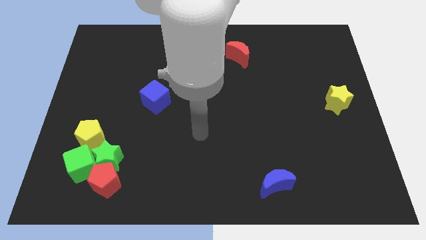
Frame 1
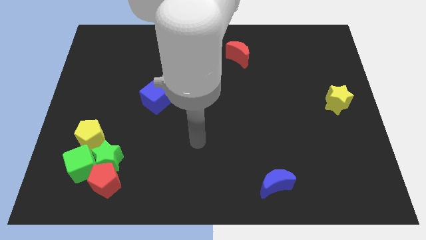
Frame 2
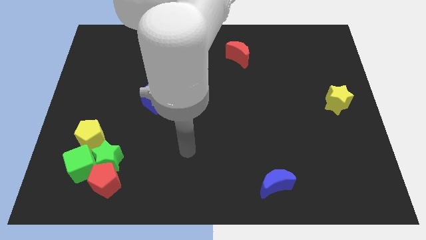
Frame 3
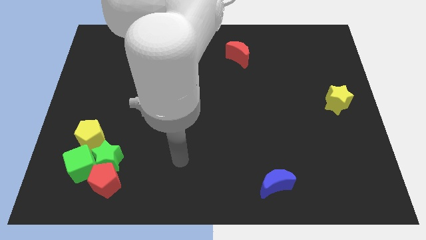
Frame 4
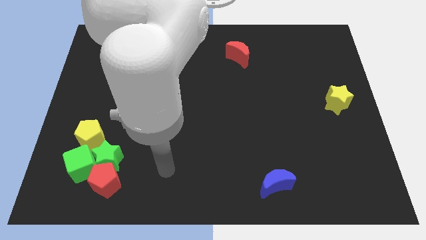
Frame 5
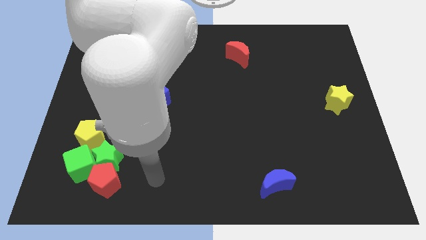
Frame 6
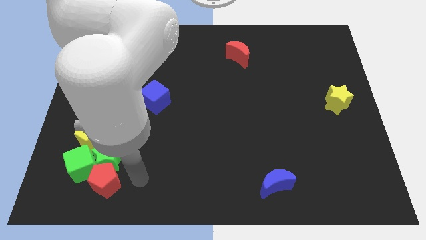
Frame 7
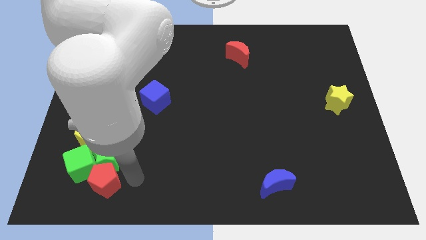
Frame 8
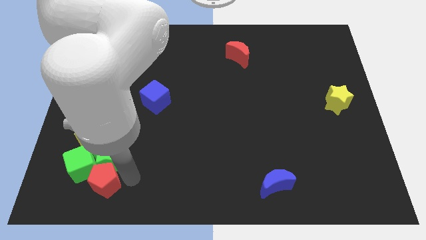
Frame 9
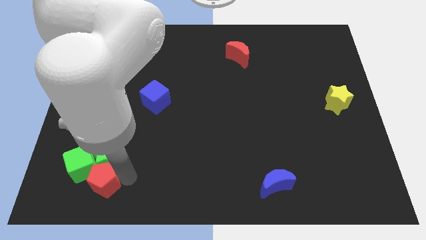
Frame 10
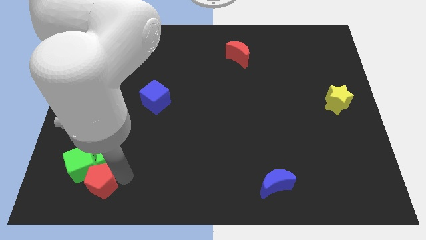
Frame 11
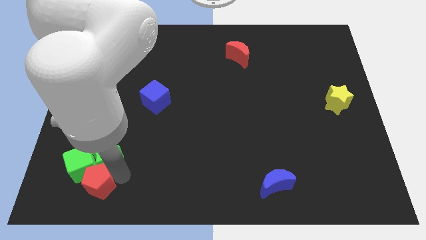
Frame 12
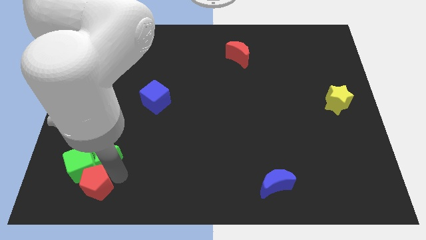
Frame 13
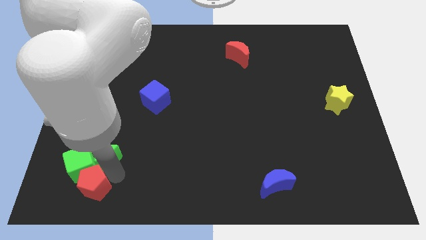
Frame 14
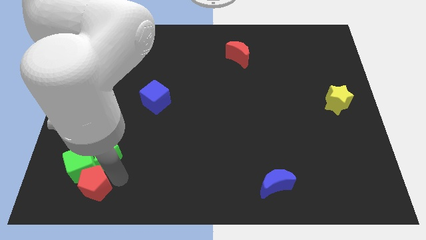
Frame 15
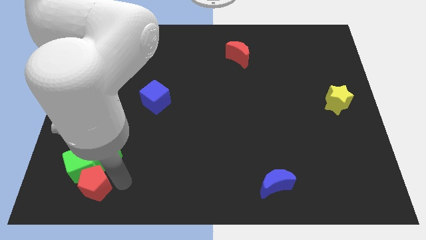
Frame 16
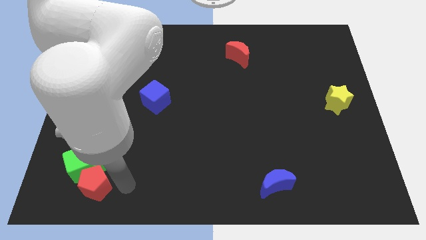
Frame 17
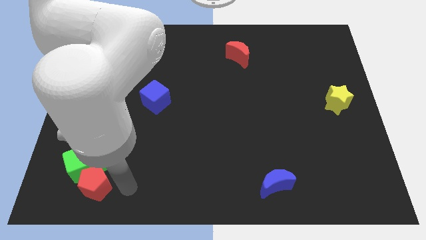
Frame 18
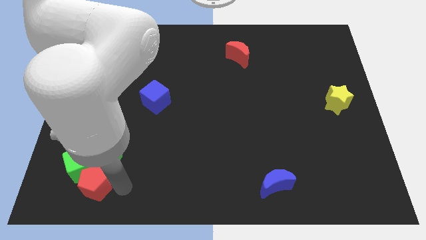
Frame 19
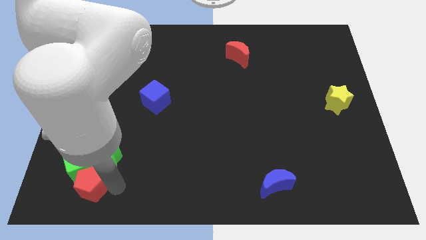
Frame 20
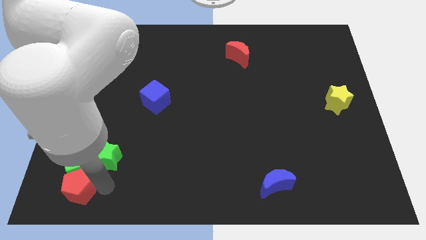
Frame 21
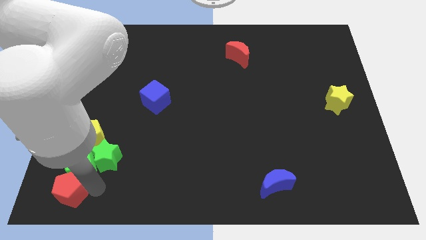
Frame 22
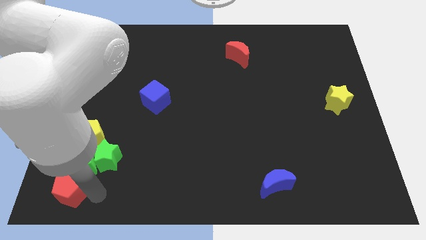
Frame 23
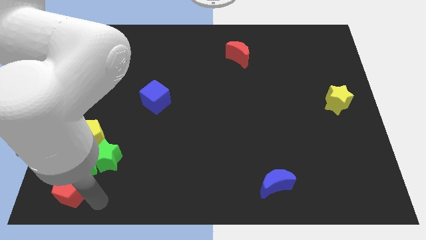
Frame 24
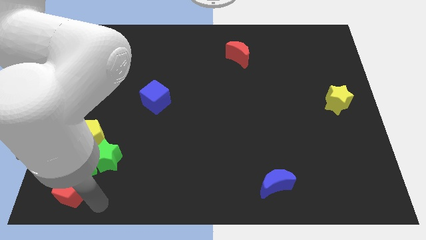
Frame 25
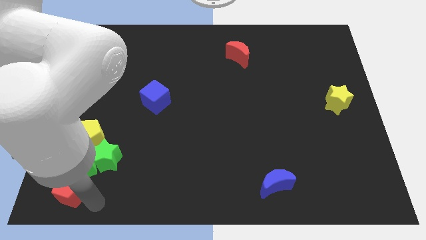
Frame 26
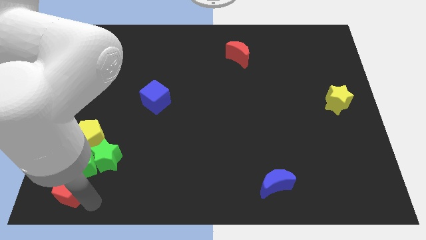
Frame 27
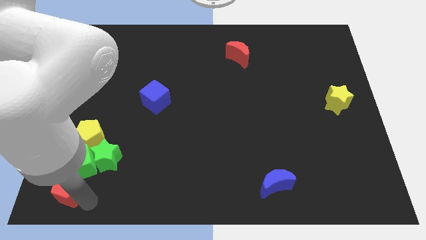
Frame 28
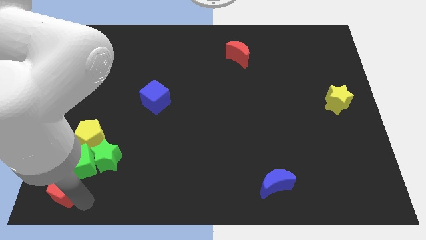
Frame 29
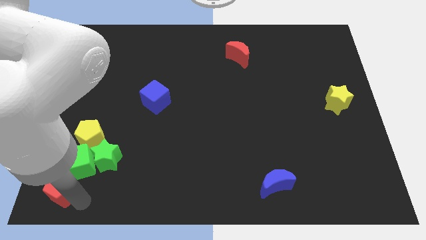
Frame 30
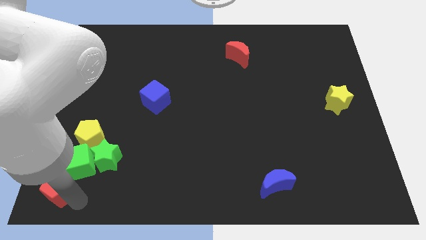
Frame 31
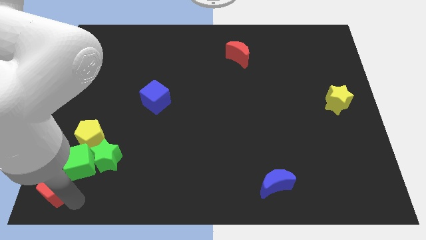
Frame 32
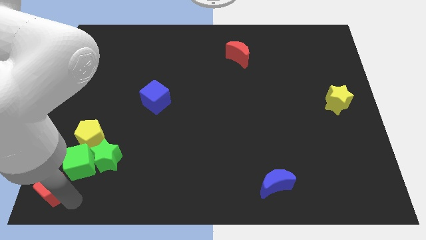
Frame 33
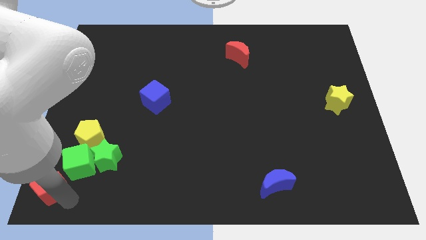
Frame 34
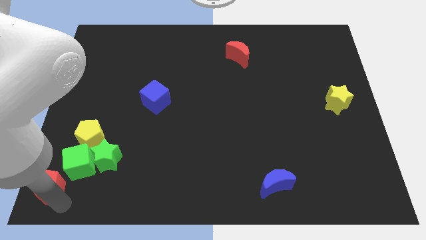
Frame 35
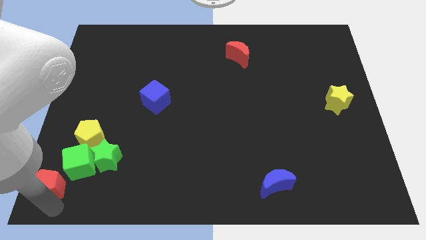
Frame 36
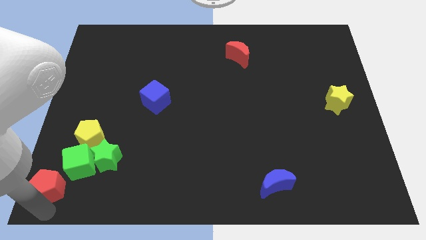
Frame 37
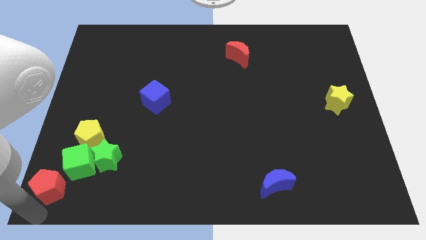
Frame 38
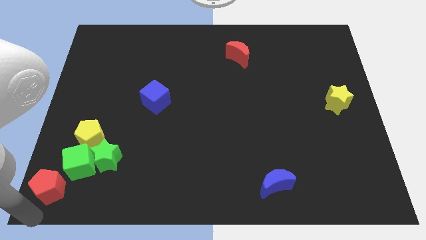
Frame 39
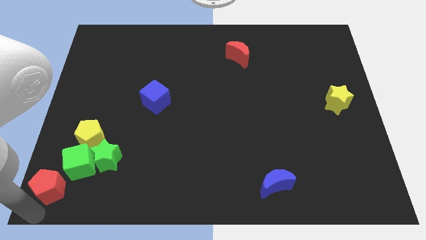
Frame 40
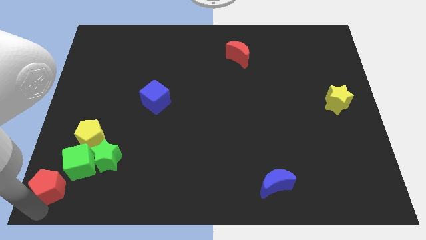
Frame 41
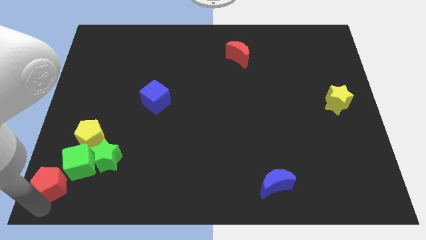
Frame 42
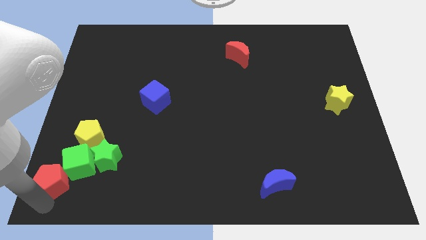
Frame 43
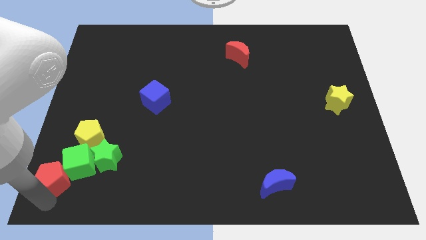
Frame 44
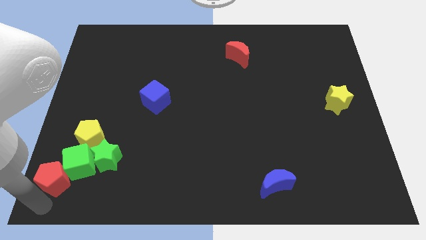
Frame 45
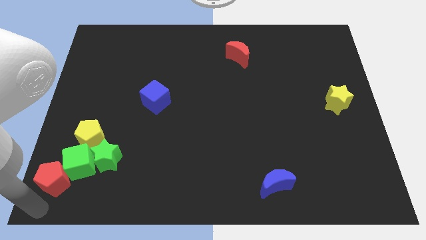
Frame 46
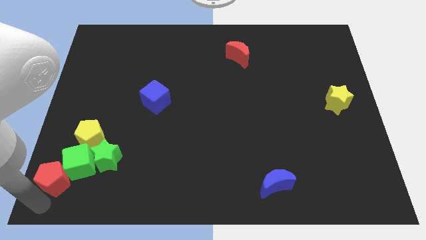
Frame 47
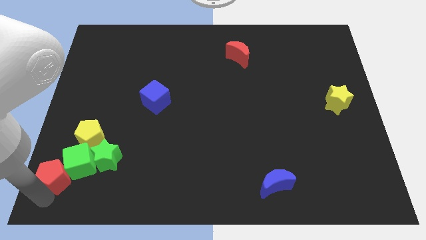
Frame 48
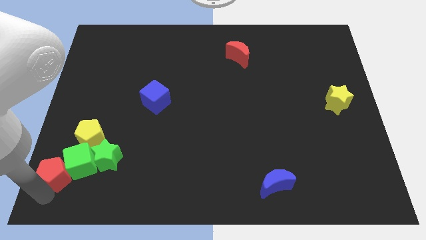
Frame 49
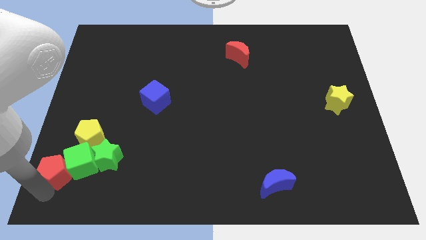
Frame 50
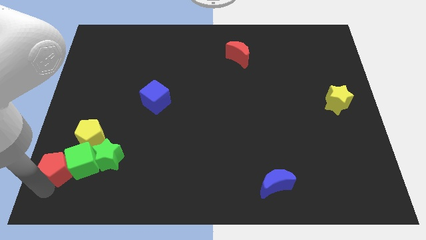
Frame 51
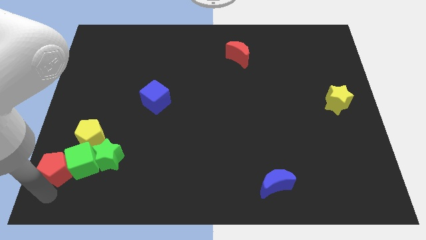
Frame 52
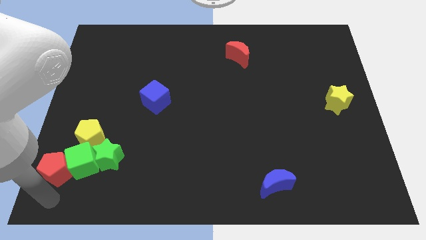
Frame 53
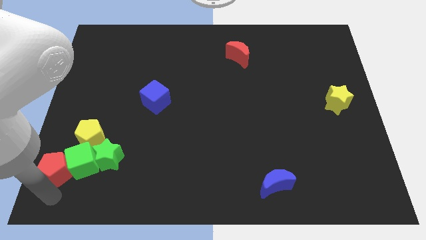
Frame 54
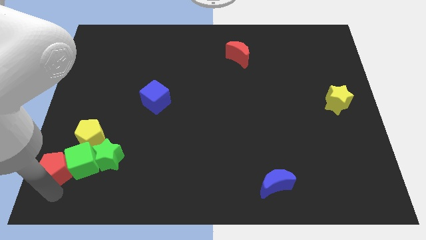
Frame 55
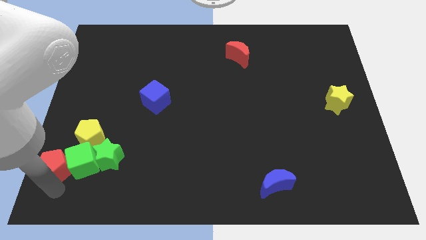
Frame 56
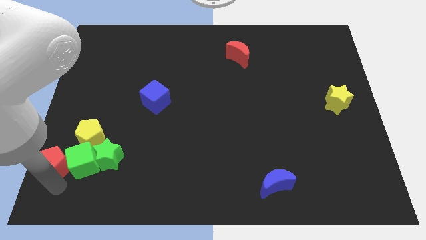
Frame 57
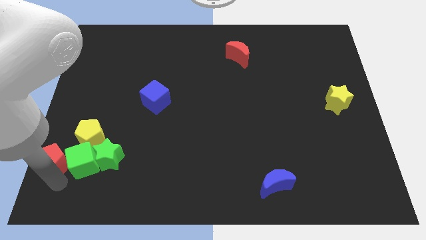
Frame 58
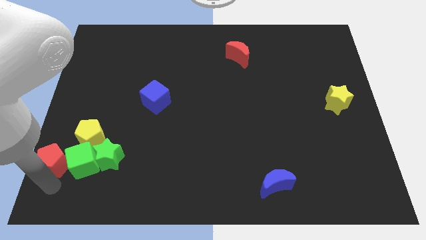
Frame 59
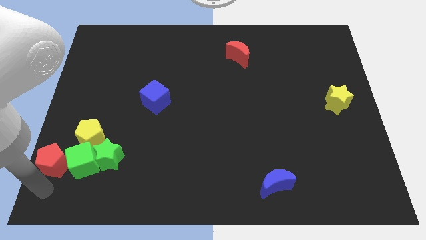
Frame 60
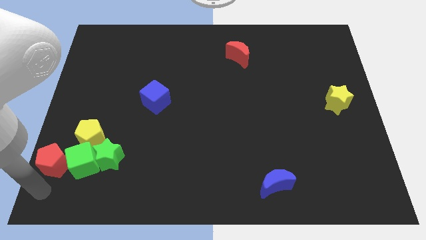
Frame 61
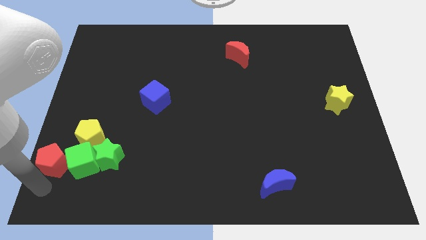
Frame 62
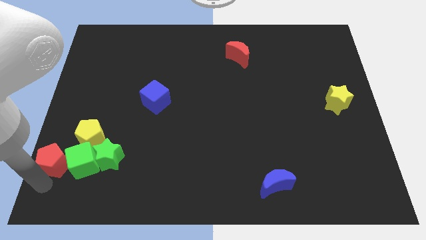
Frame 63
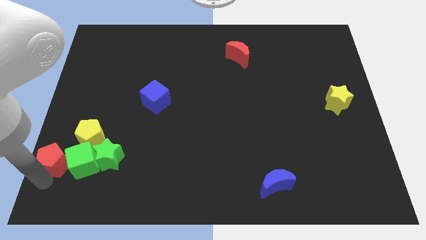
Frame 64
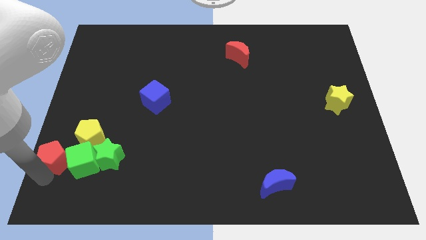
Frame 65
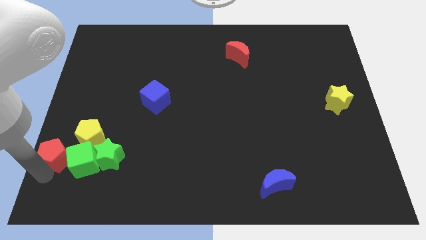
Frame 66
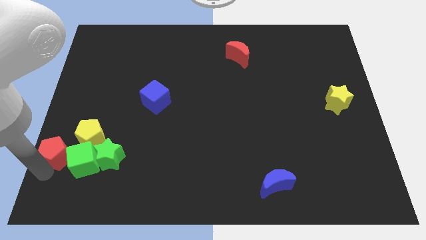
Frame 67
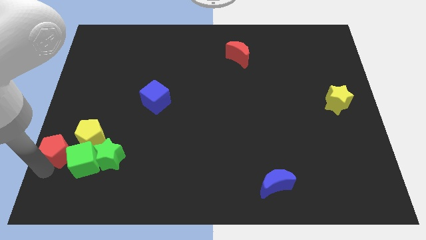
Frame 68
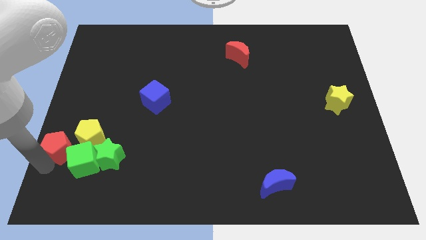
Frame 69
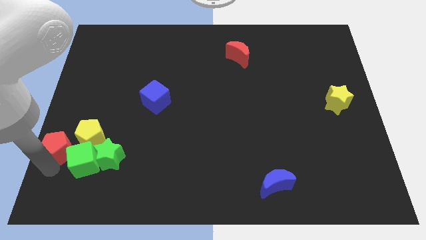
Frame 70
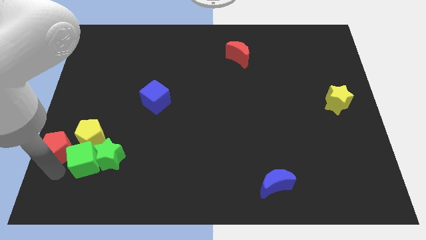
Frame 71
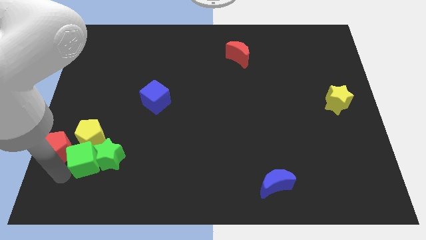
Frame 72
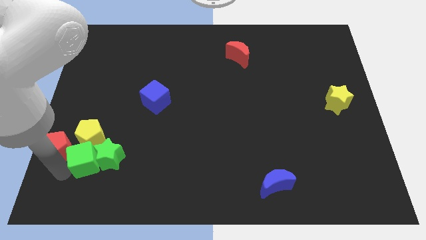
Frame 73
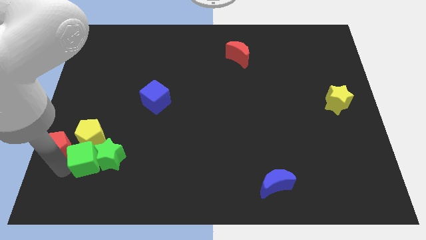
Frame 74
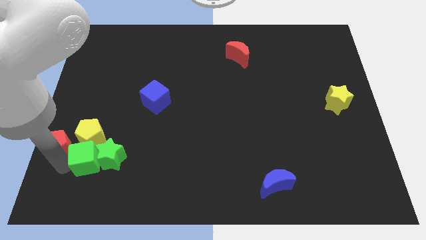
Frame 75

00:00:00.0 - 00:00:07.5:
slide the red pentagon to the left side of the board
